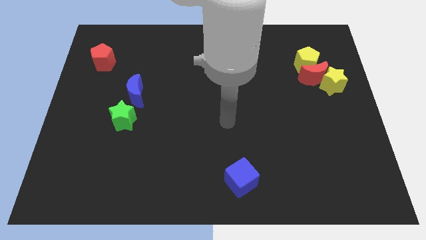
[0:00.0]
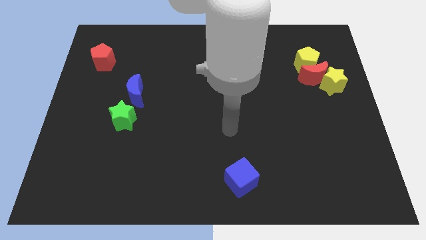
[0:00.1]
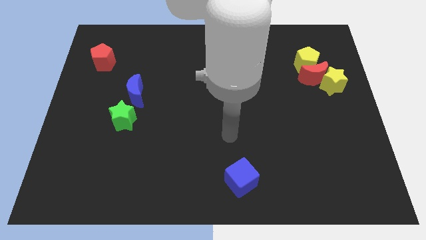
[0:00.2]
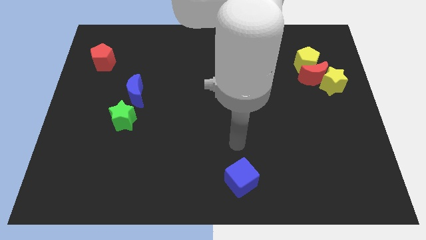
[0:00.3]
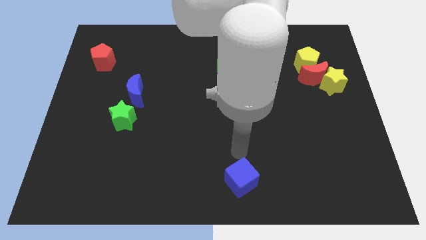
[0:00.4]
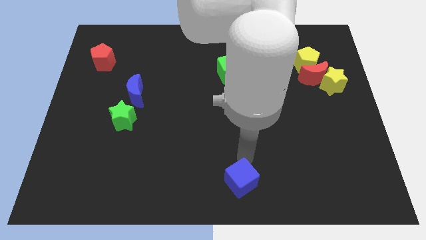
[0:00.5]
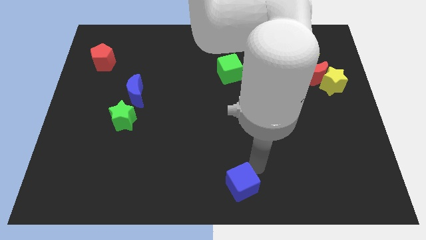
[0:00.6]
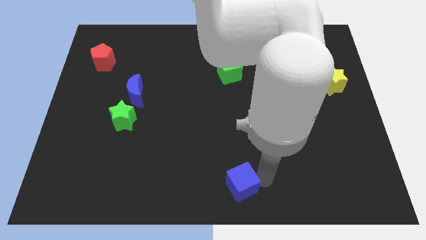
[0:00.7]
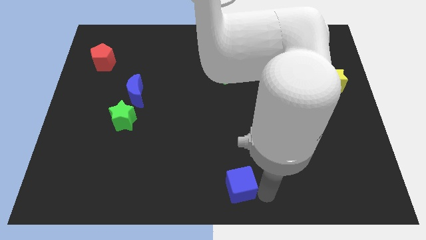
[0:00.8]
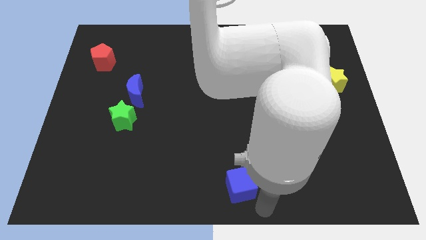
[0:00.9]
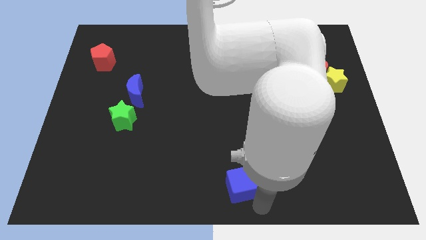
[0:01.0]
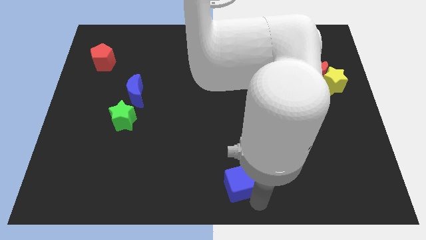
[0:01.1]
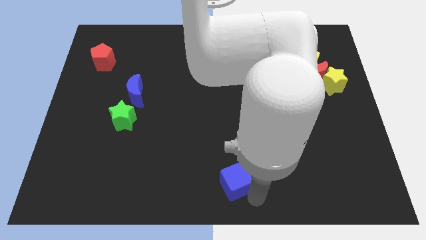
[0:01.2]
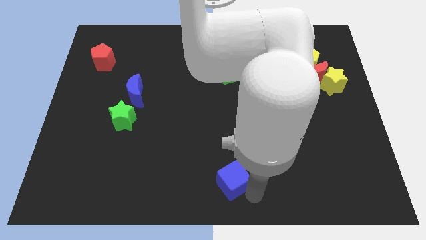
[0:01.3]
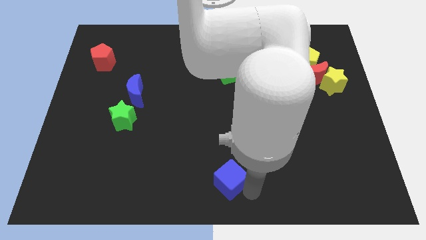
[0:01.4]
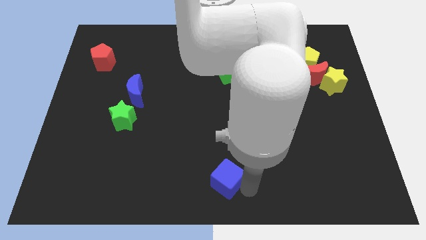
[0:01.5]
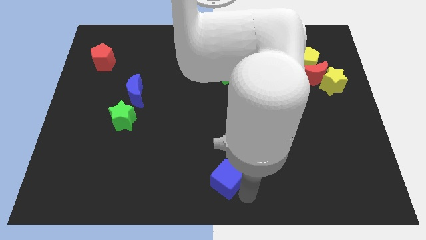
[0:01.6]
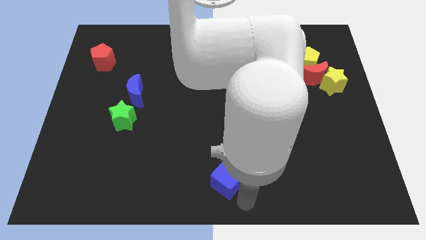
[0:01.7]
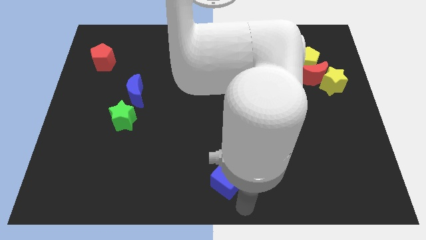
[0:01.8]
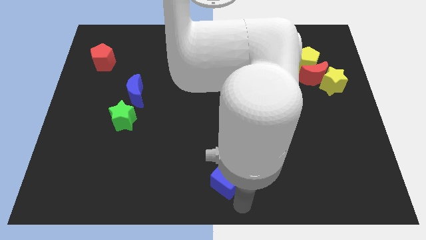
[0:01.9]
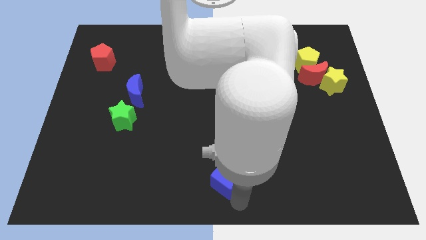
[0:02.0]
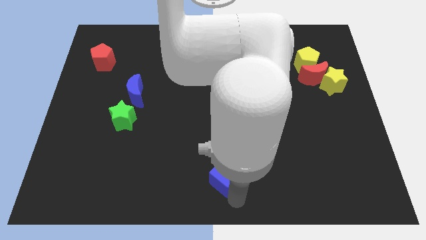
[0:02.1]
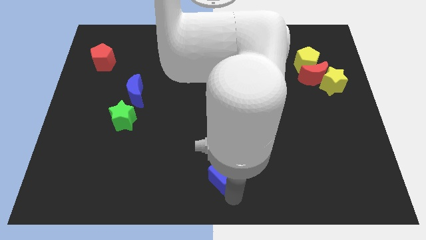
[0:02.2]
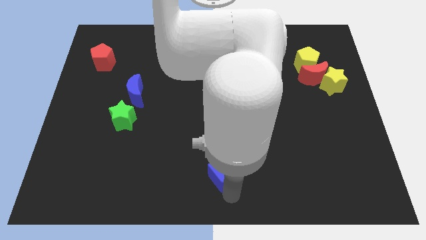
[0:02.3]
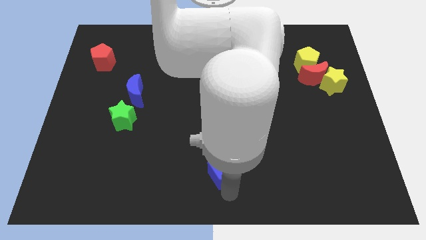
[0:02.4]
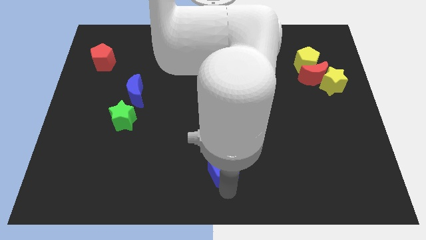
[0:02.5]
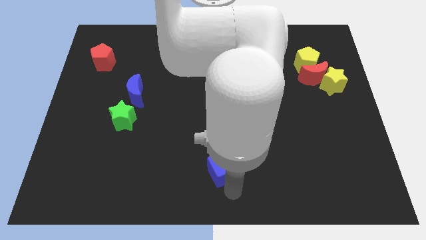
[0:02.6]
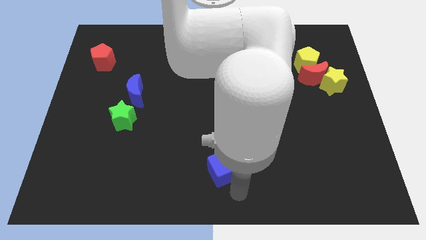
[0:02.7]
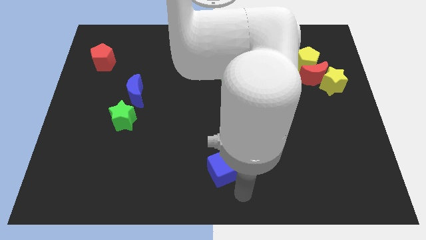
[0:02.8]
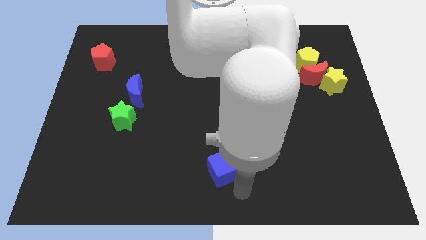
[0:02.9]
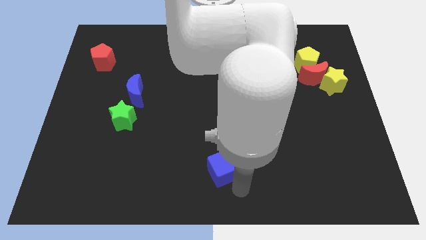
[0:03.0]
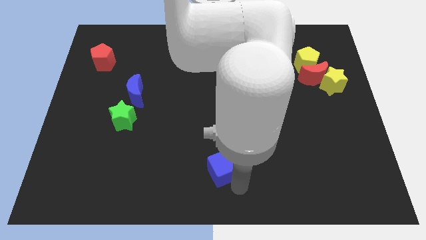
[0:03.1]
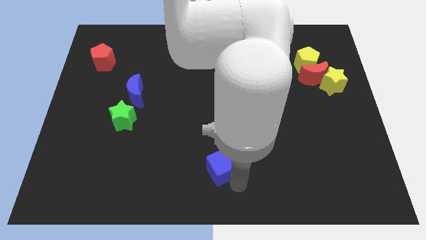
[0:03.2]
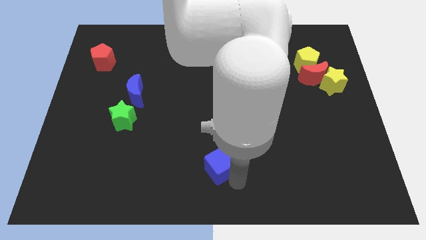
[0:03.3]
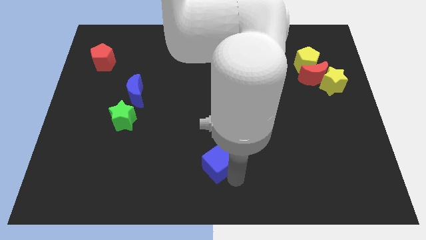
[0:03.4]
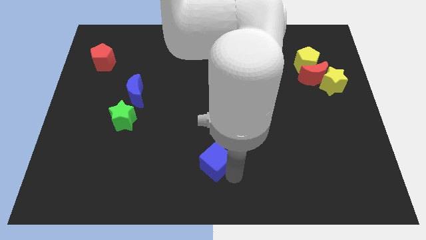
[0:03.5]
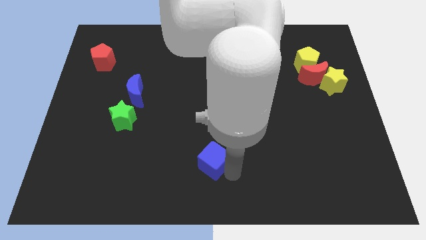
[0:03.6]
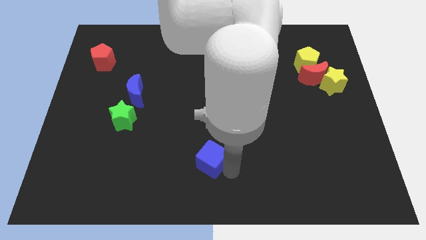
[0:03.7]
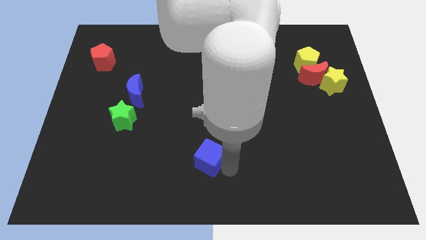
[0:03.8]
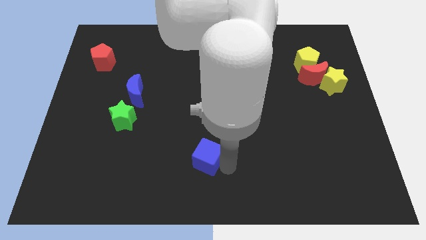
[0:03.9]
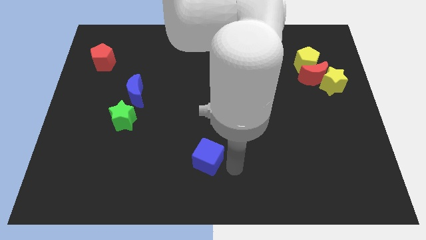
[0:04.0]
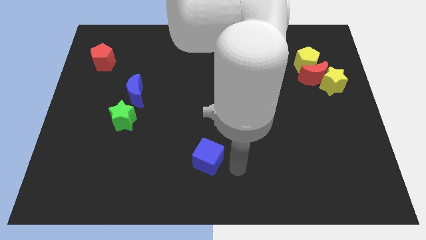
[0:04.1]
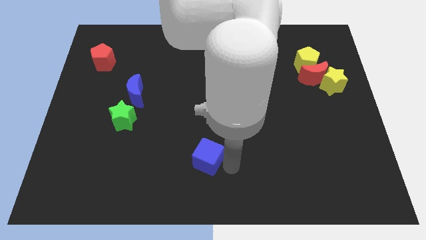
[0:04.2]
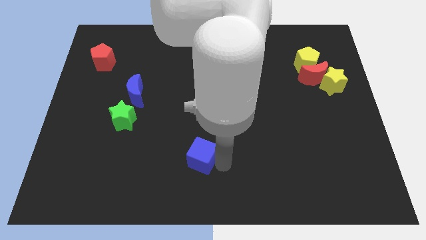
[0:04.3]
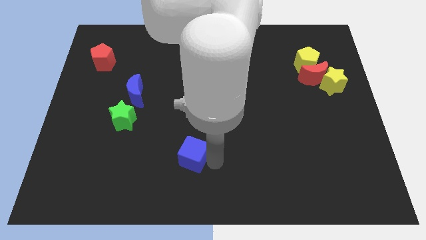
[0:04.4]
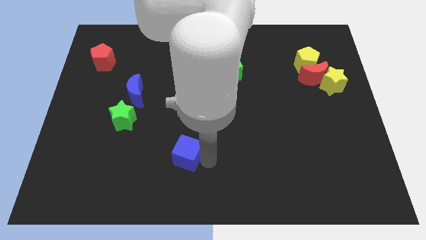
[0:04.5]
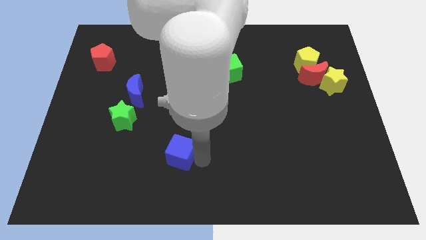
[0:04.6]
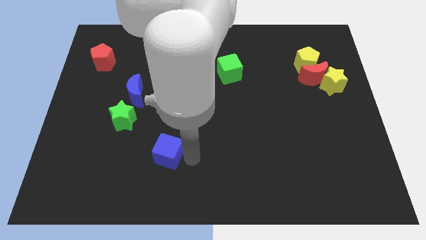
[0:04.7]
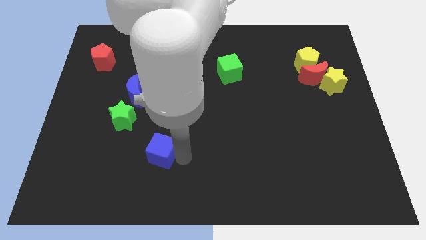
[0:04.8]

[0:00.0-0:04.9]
slide the blue cube to the bottom right of the green star

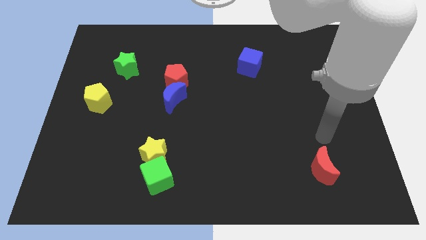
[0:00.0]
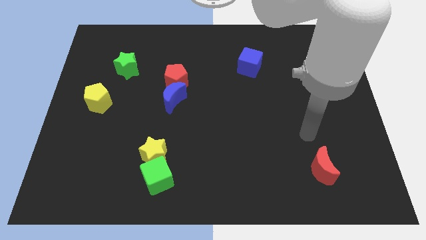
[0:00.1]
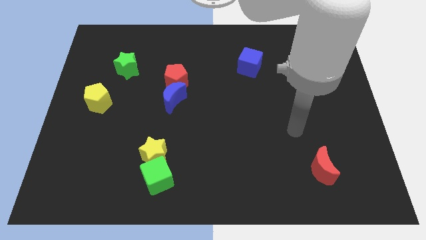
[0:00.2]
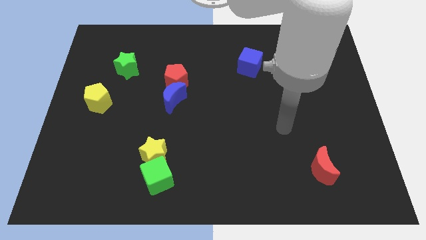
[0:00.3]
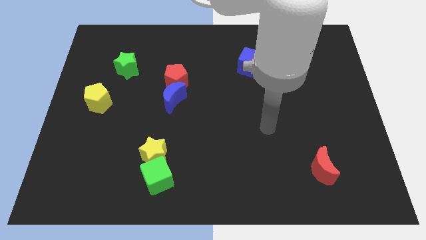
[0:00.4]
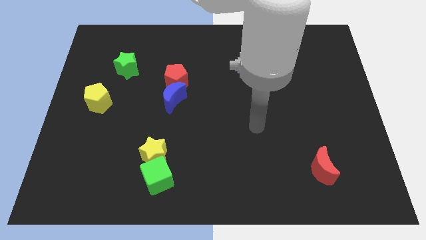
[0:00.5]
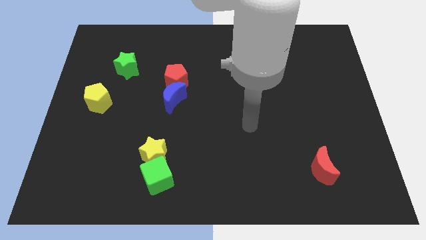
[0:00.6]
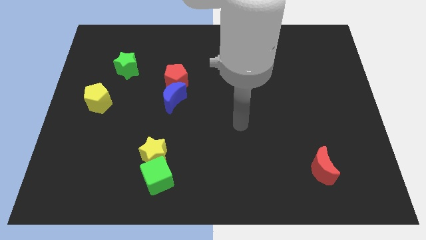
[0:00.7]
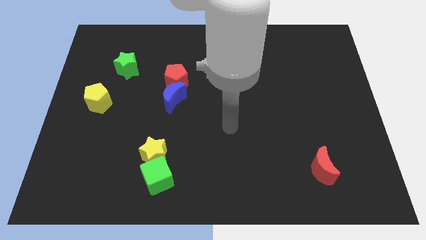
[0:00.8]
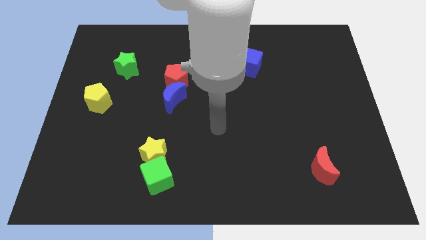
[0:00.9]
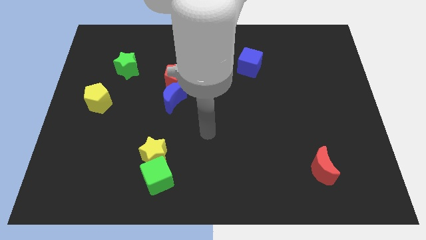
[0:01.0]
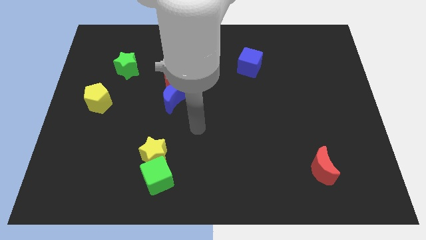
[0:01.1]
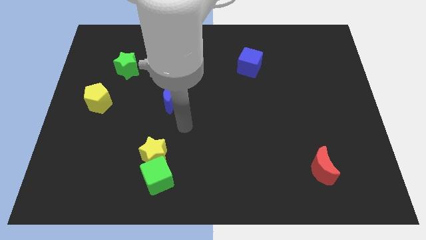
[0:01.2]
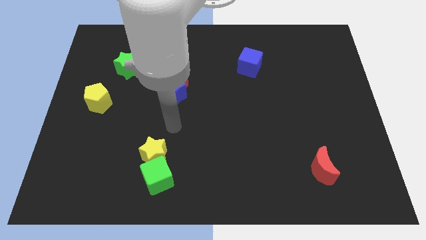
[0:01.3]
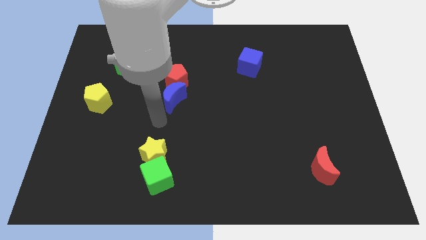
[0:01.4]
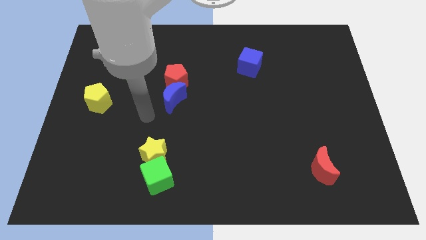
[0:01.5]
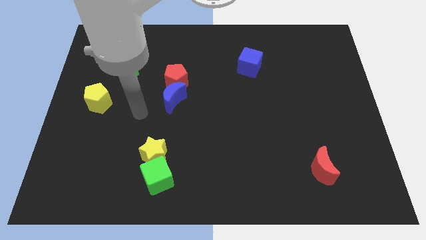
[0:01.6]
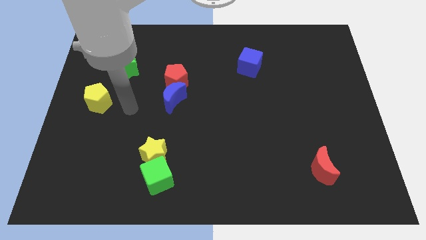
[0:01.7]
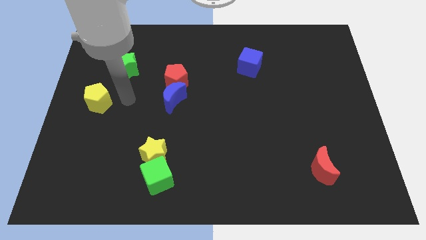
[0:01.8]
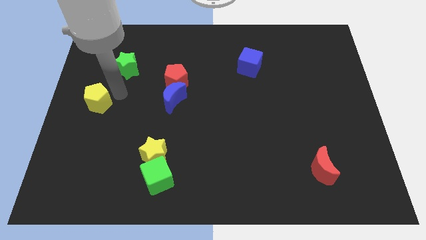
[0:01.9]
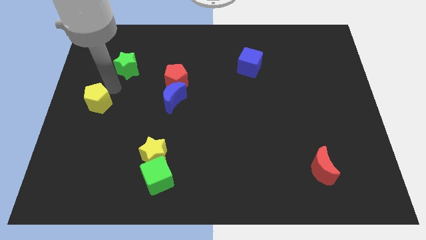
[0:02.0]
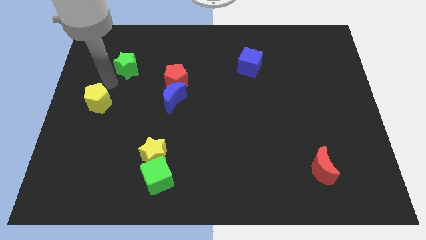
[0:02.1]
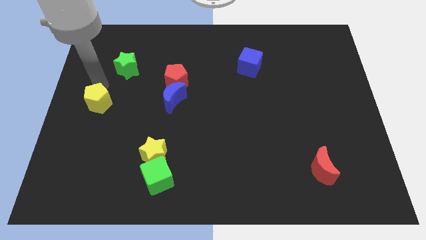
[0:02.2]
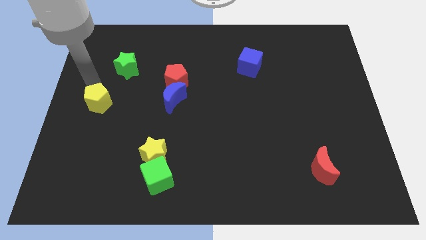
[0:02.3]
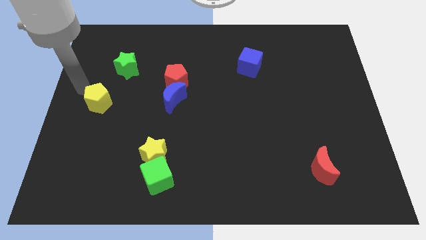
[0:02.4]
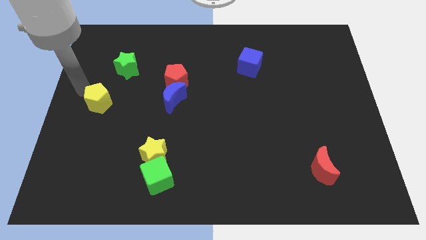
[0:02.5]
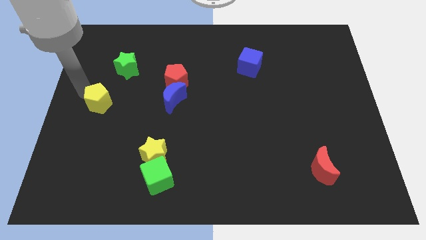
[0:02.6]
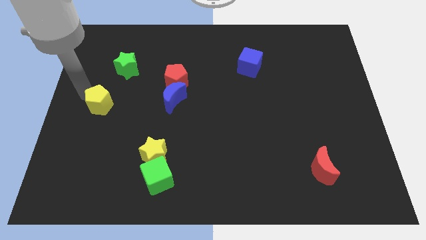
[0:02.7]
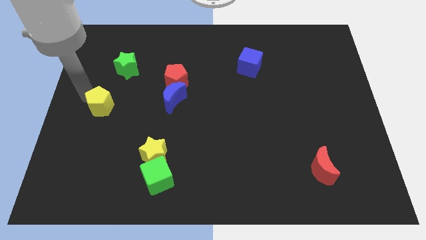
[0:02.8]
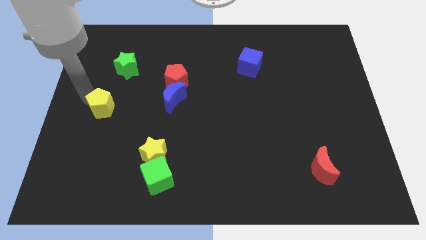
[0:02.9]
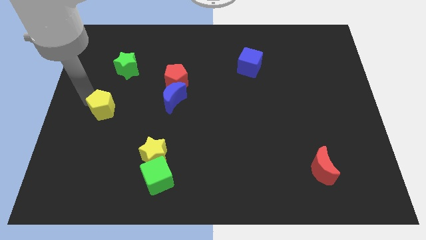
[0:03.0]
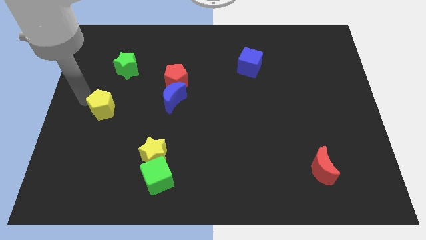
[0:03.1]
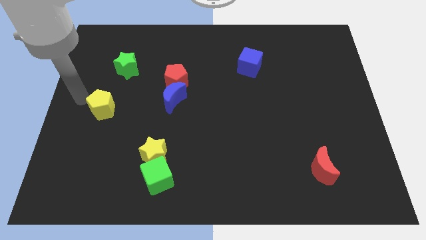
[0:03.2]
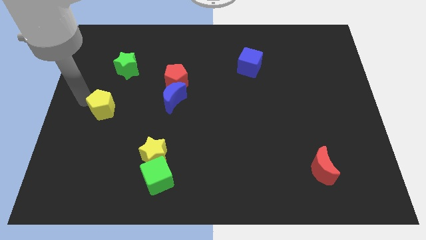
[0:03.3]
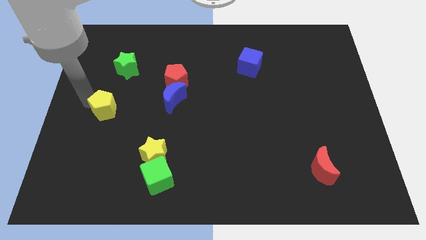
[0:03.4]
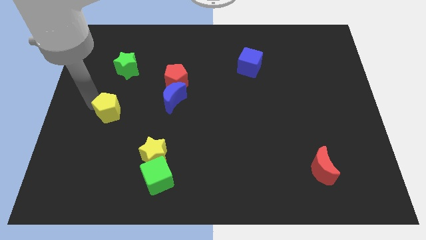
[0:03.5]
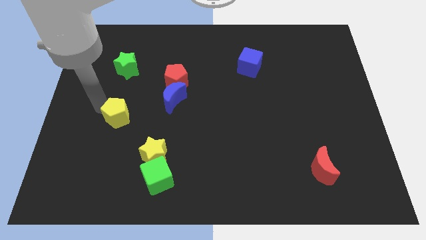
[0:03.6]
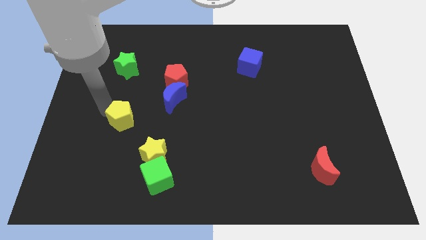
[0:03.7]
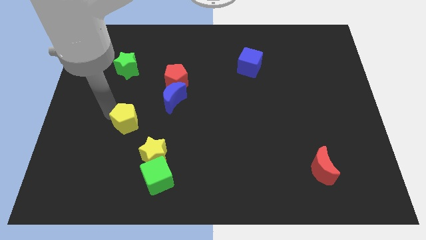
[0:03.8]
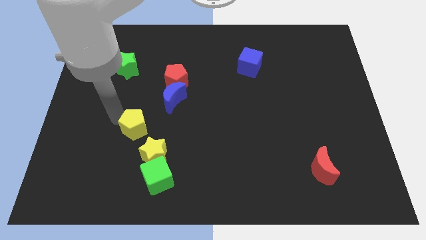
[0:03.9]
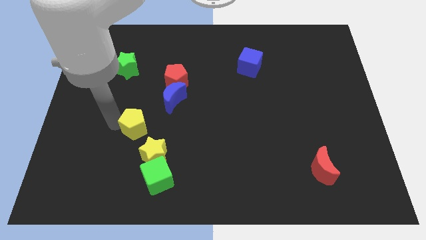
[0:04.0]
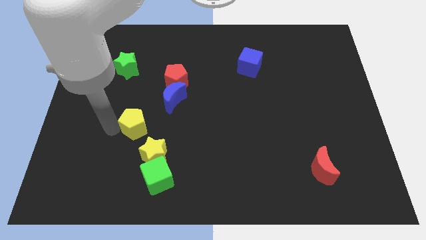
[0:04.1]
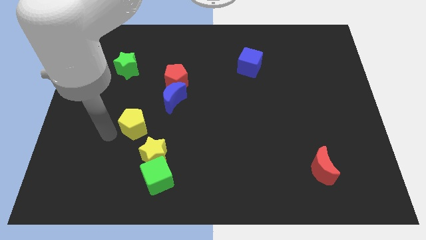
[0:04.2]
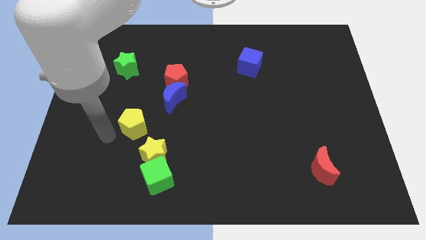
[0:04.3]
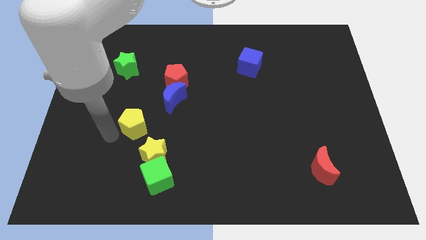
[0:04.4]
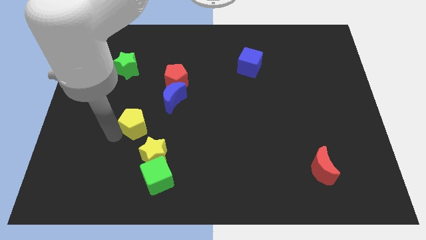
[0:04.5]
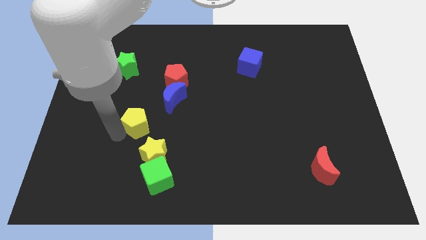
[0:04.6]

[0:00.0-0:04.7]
slide the yellow pentagon to the top of the yellow star
